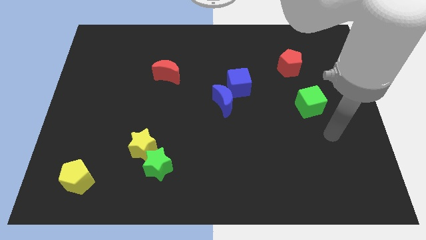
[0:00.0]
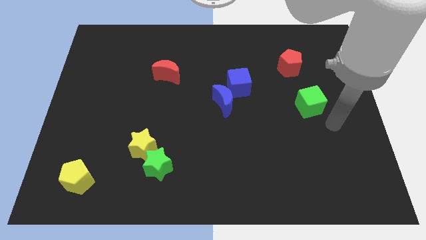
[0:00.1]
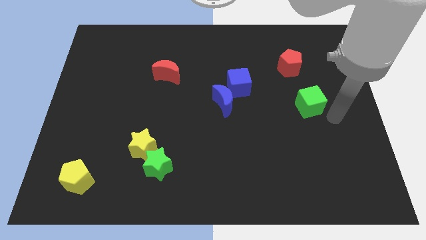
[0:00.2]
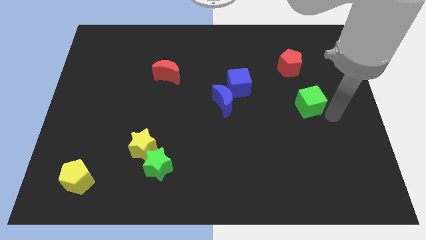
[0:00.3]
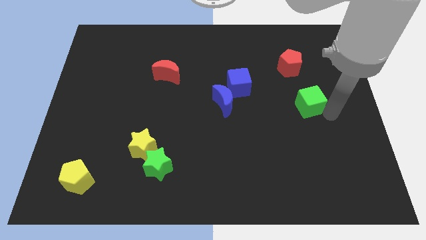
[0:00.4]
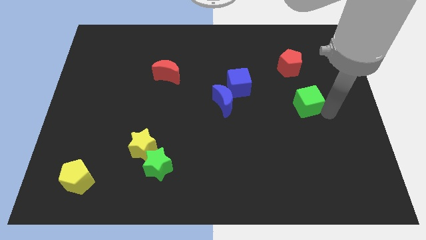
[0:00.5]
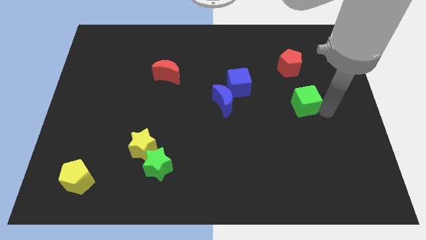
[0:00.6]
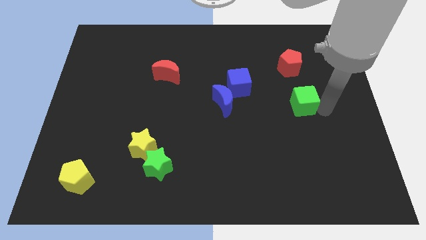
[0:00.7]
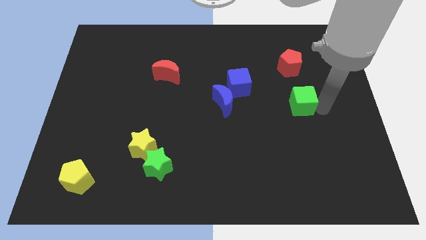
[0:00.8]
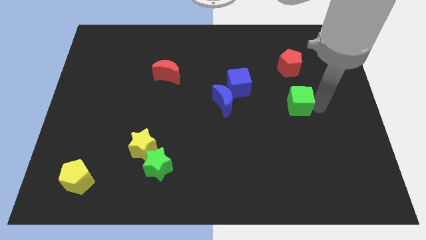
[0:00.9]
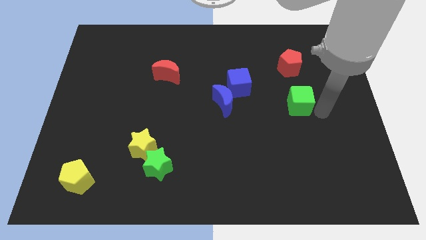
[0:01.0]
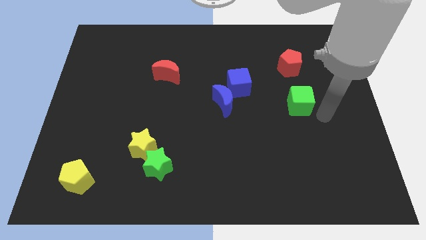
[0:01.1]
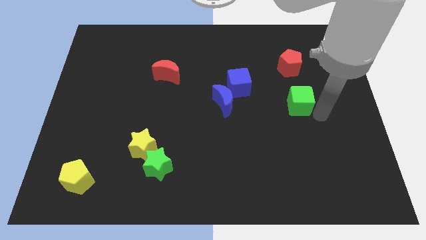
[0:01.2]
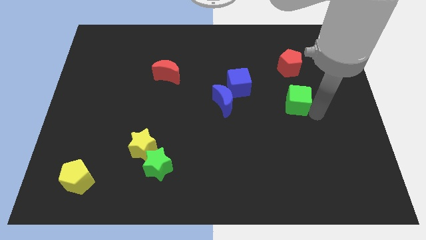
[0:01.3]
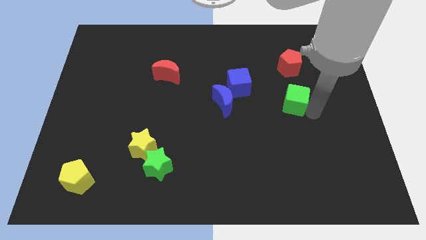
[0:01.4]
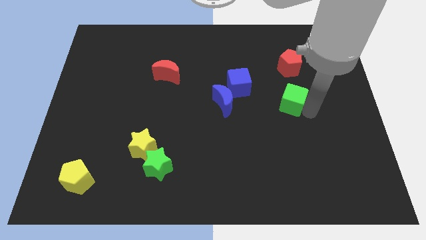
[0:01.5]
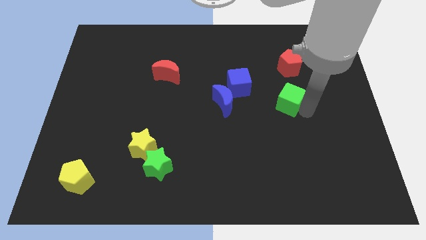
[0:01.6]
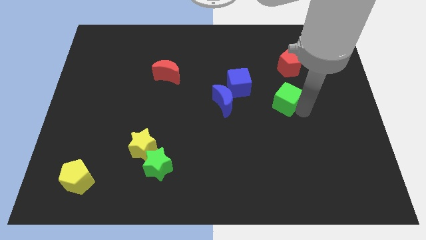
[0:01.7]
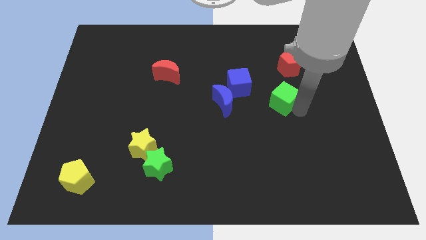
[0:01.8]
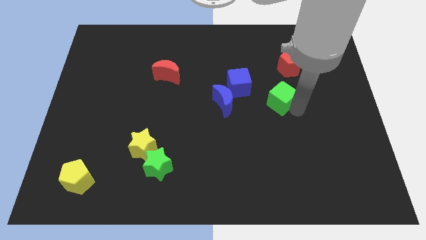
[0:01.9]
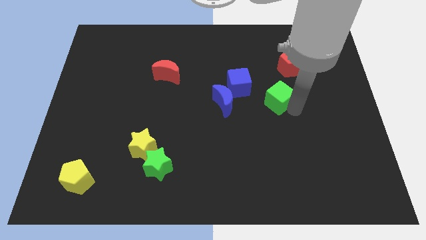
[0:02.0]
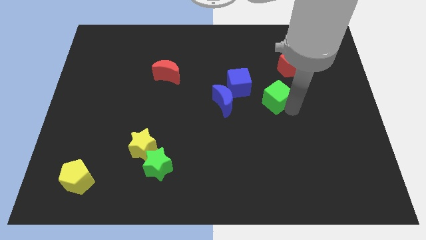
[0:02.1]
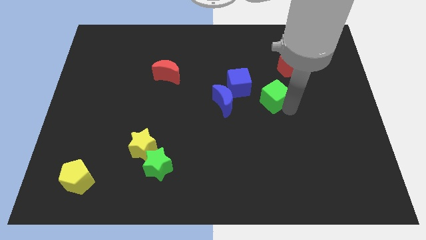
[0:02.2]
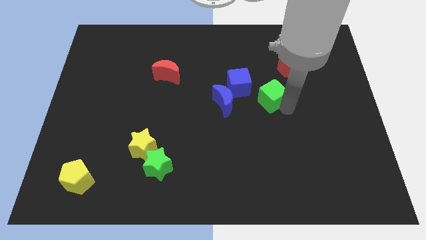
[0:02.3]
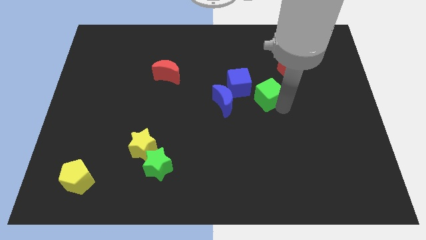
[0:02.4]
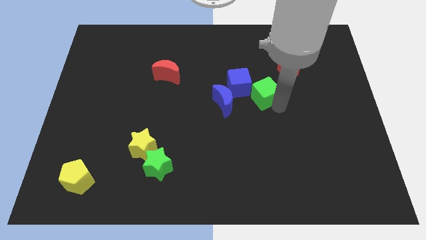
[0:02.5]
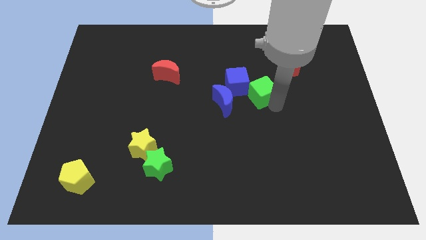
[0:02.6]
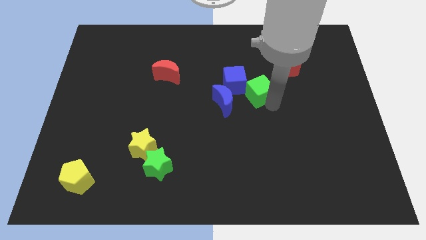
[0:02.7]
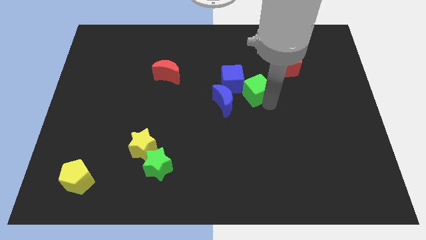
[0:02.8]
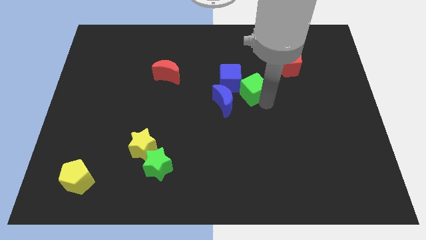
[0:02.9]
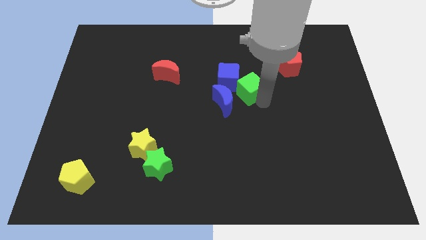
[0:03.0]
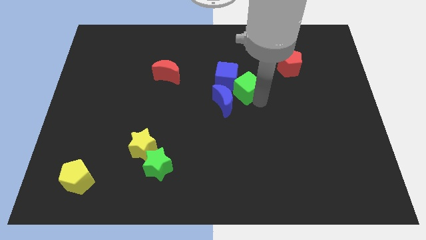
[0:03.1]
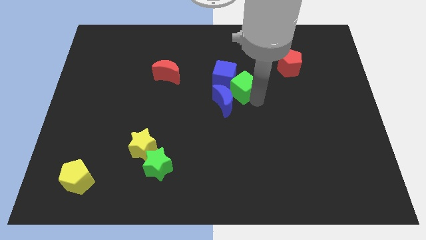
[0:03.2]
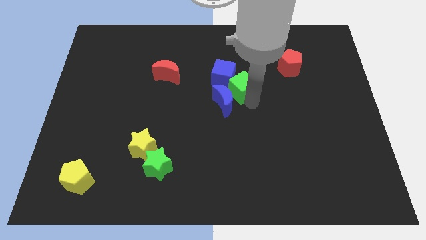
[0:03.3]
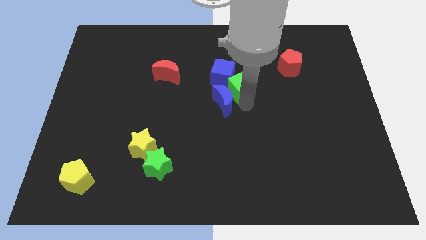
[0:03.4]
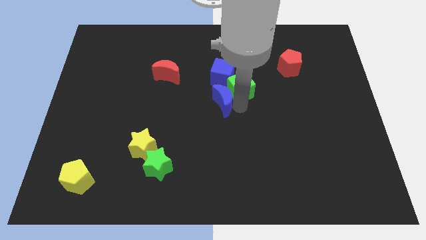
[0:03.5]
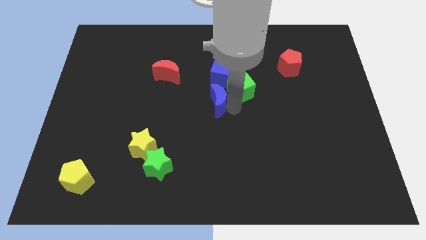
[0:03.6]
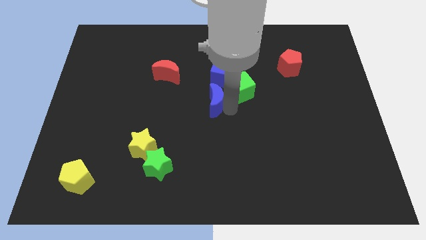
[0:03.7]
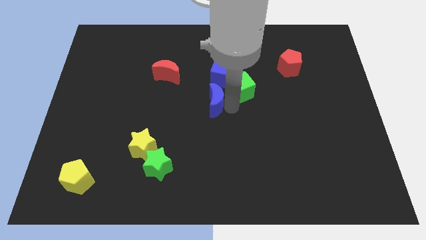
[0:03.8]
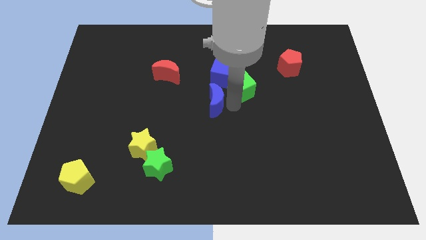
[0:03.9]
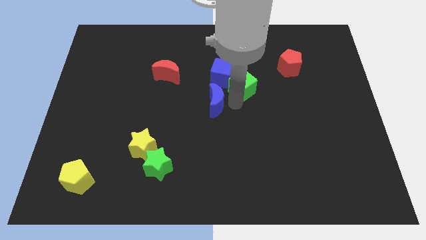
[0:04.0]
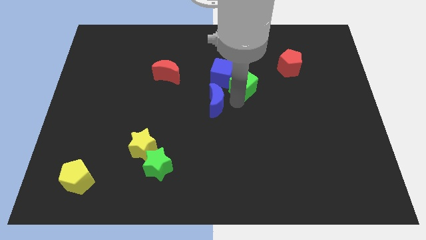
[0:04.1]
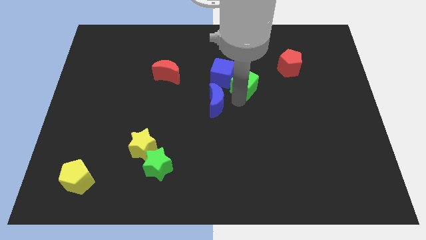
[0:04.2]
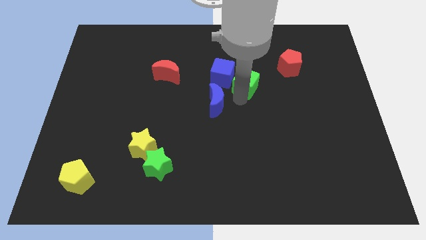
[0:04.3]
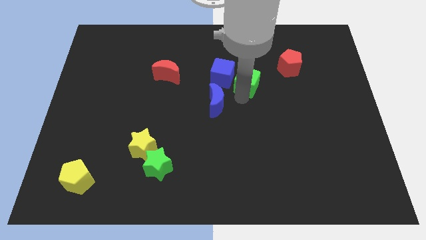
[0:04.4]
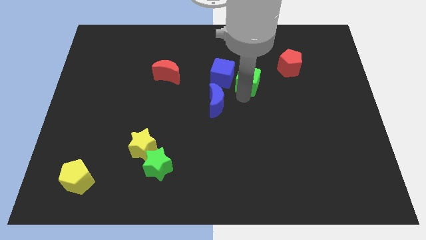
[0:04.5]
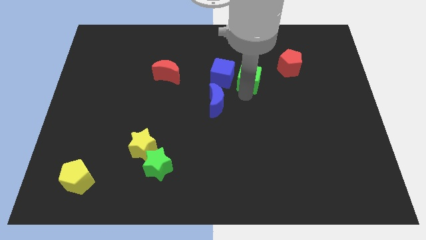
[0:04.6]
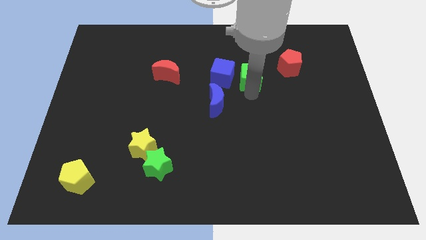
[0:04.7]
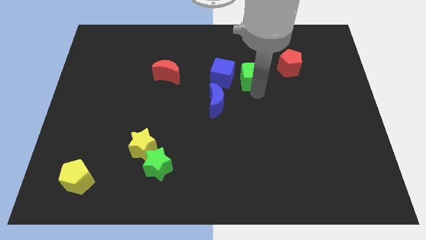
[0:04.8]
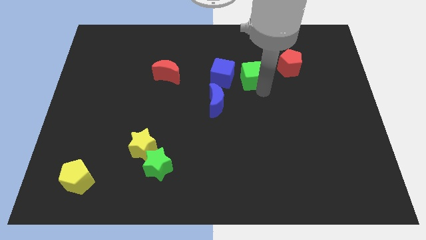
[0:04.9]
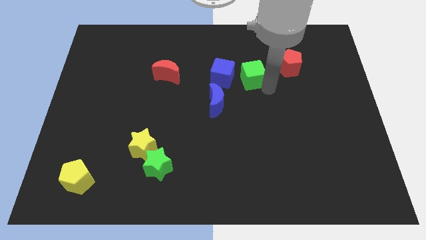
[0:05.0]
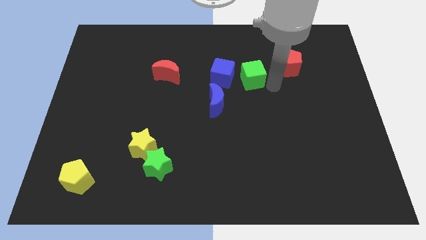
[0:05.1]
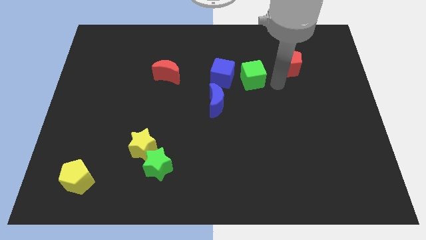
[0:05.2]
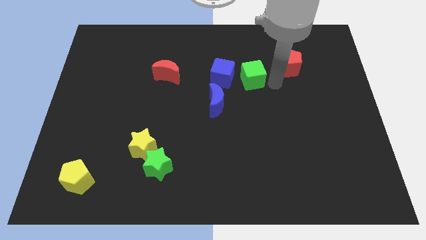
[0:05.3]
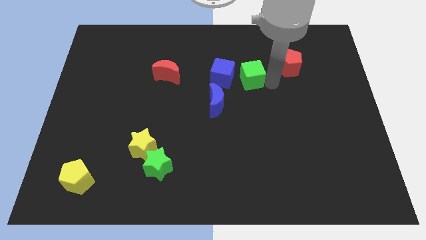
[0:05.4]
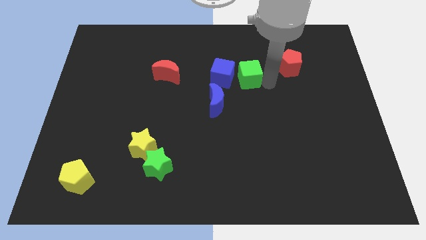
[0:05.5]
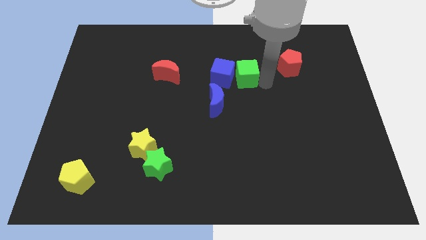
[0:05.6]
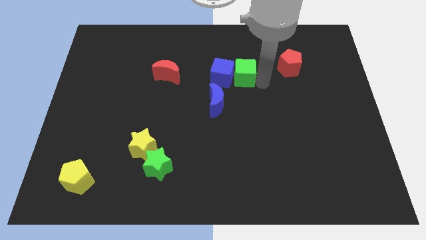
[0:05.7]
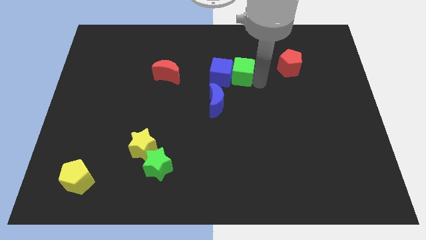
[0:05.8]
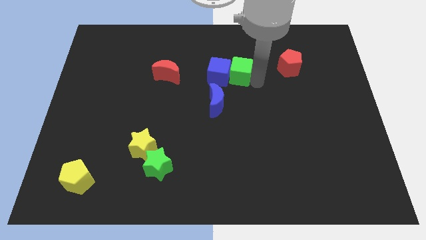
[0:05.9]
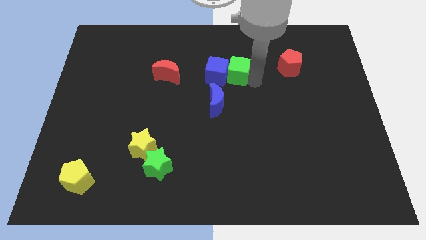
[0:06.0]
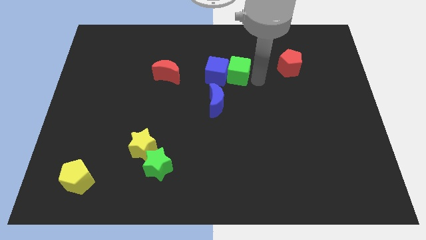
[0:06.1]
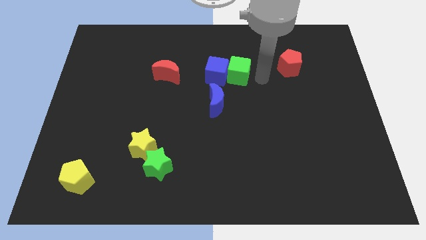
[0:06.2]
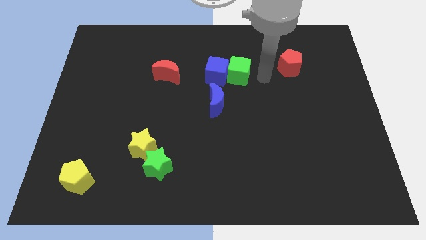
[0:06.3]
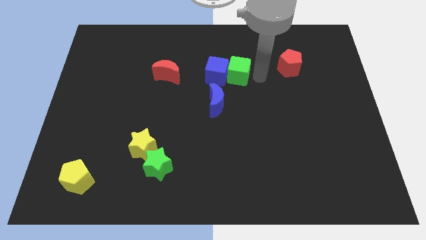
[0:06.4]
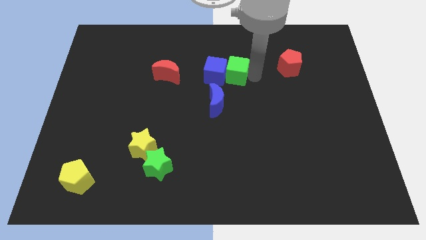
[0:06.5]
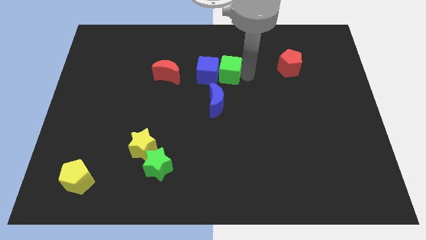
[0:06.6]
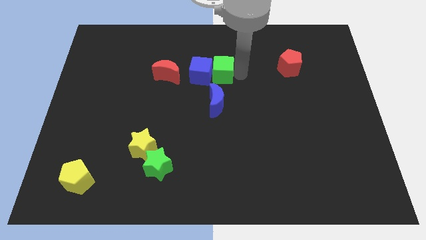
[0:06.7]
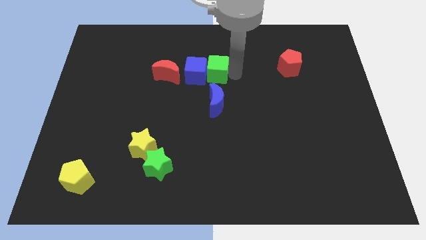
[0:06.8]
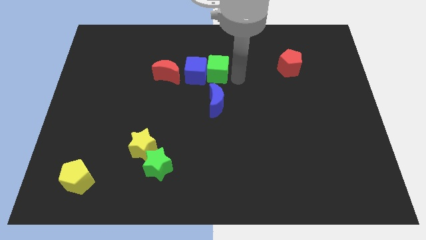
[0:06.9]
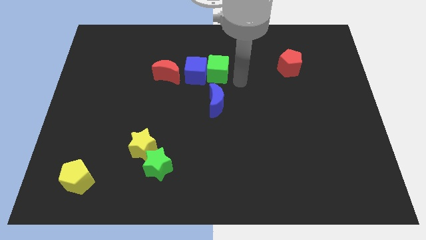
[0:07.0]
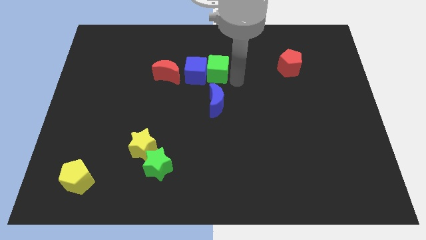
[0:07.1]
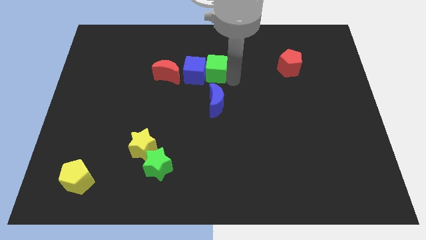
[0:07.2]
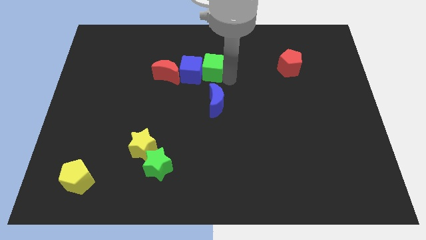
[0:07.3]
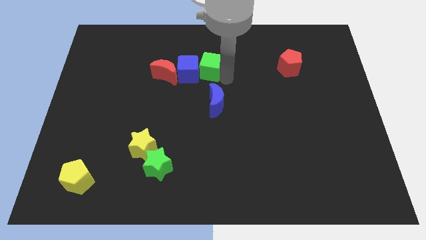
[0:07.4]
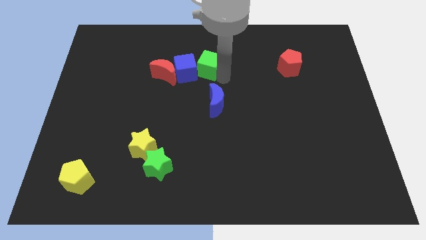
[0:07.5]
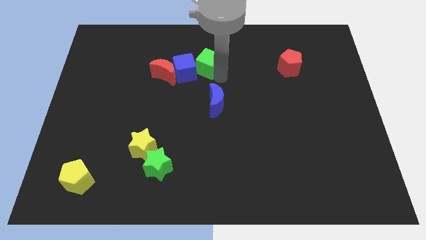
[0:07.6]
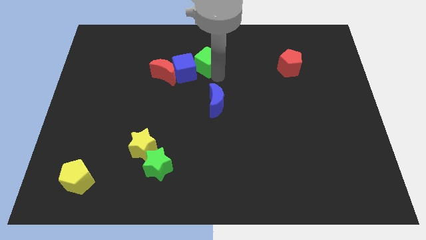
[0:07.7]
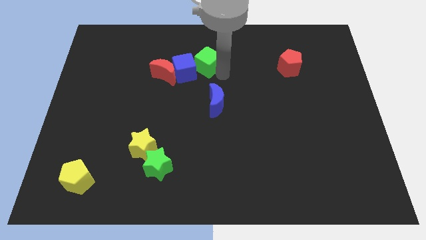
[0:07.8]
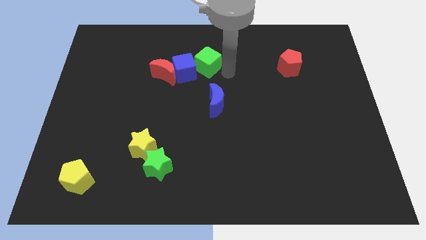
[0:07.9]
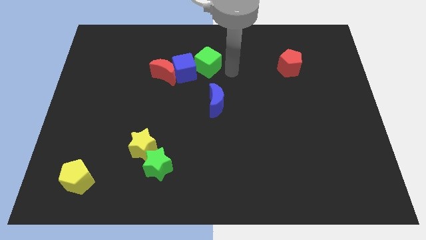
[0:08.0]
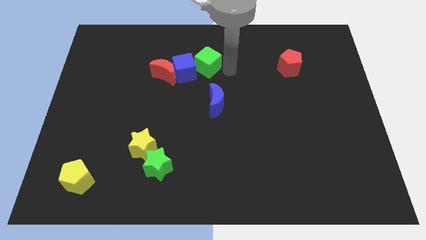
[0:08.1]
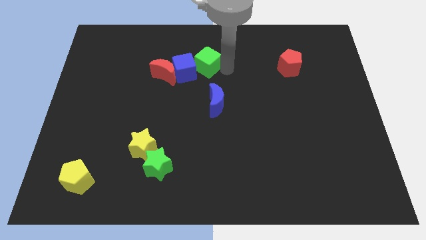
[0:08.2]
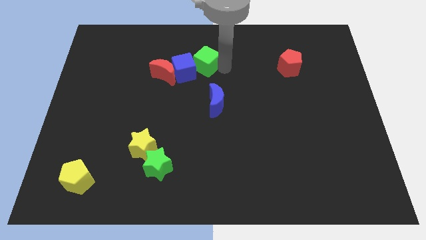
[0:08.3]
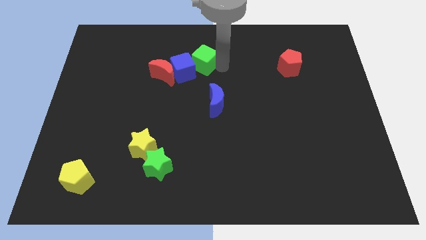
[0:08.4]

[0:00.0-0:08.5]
push the green cube diagonally up and to the right of the red moon
